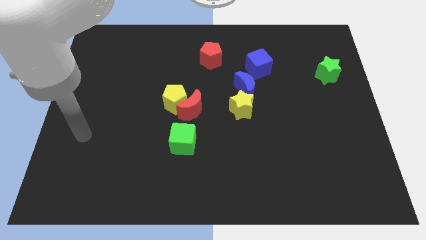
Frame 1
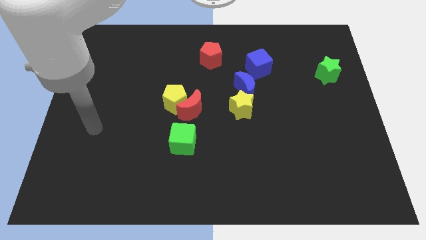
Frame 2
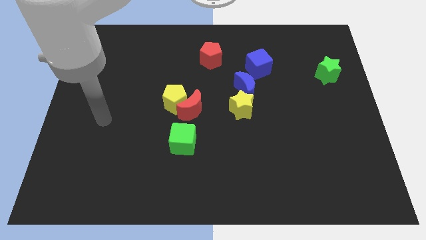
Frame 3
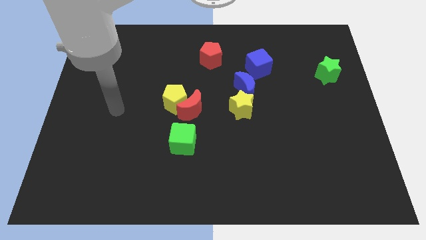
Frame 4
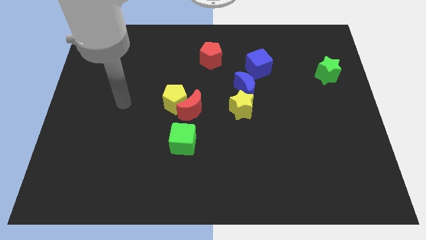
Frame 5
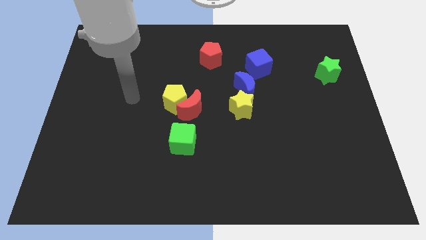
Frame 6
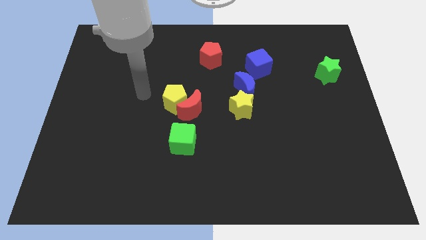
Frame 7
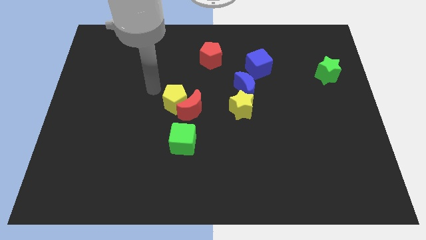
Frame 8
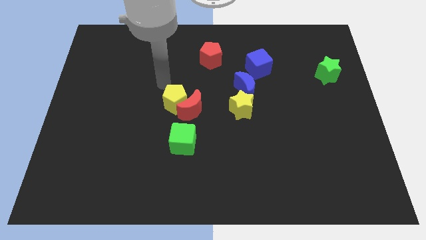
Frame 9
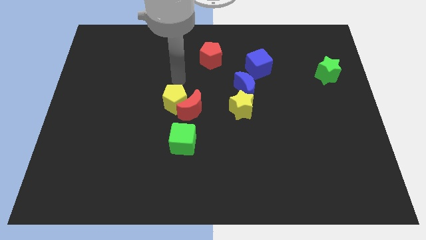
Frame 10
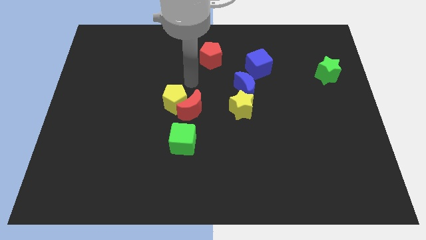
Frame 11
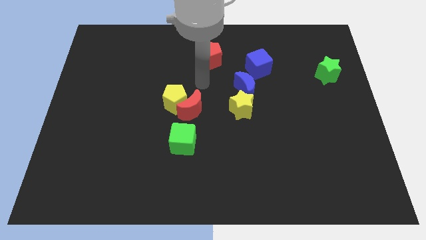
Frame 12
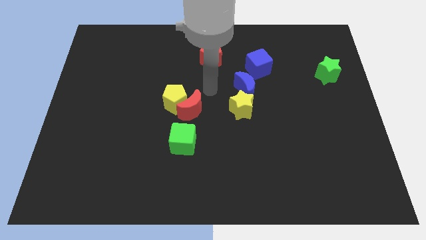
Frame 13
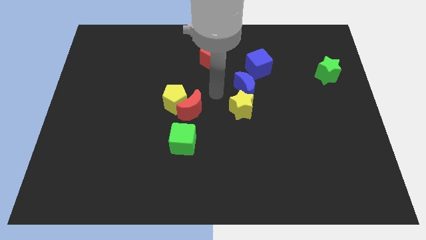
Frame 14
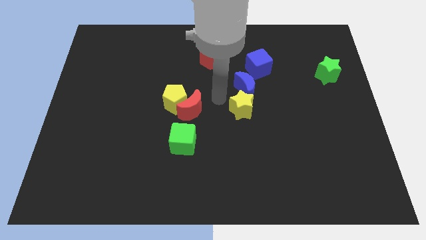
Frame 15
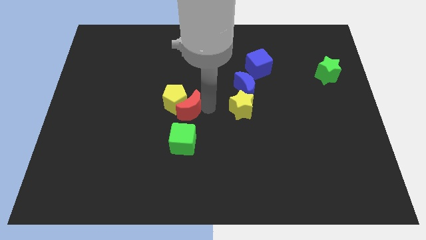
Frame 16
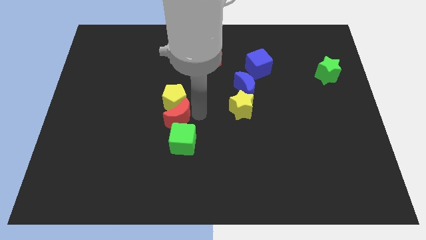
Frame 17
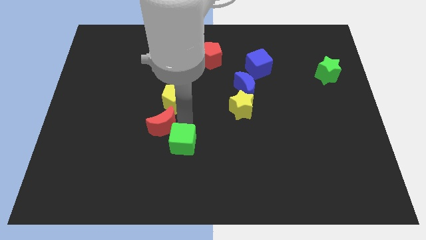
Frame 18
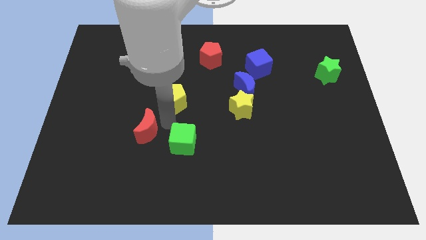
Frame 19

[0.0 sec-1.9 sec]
pull the yellow pentagon apart from the red moon

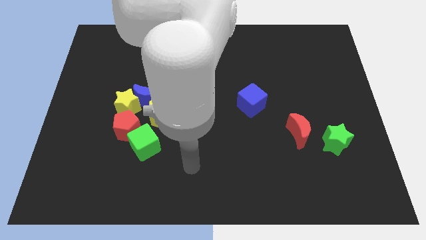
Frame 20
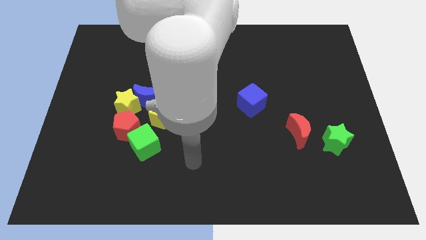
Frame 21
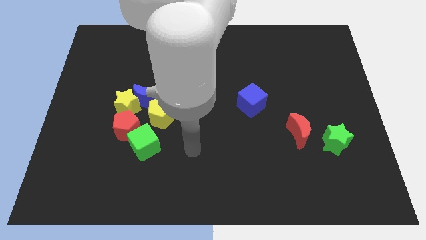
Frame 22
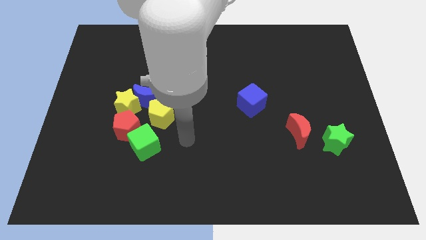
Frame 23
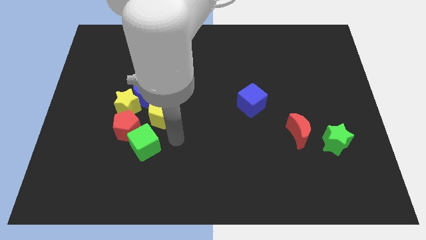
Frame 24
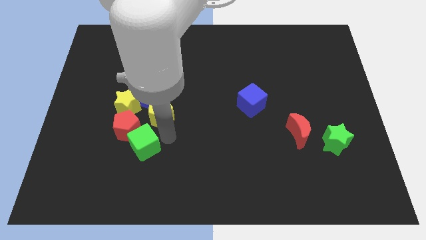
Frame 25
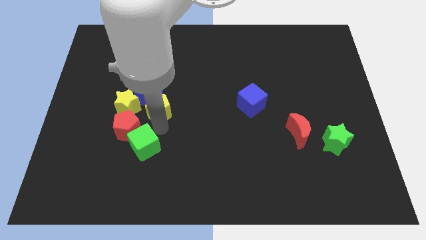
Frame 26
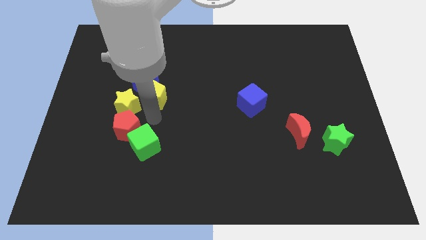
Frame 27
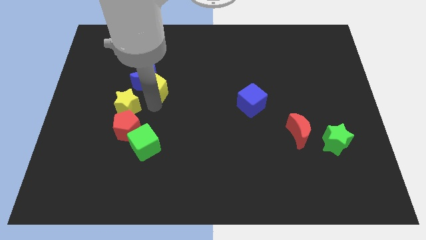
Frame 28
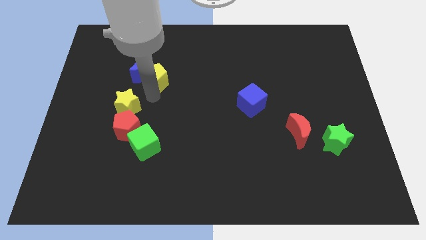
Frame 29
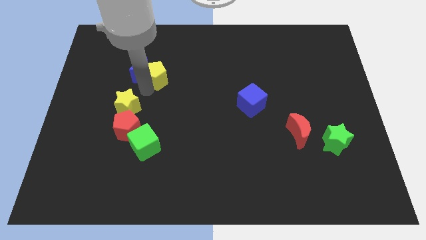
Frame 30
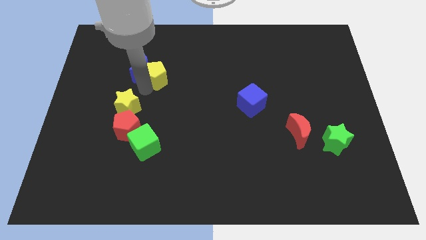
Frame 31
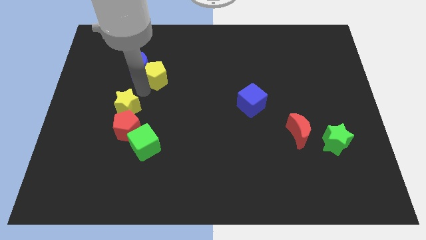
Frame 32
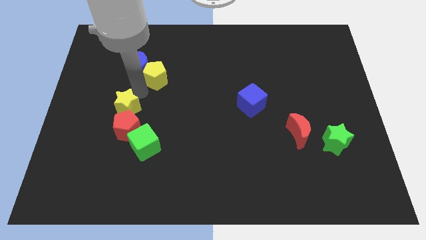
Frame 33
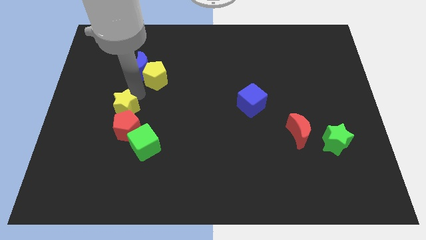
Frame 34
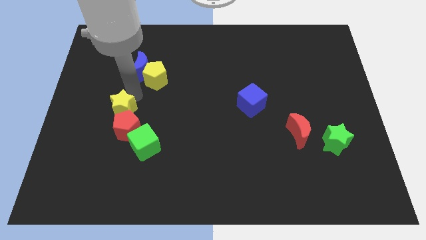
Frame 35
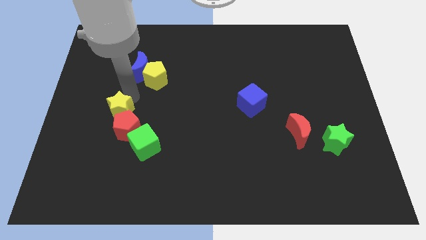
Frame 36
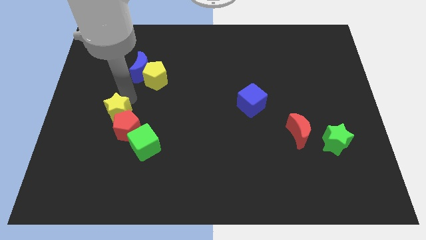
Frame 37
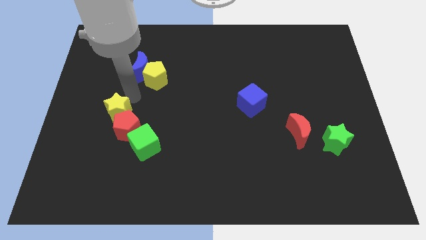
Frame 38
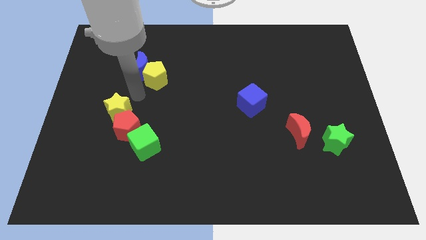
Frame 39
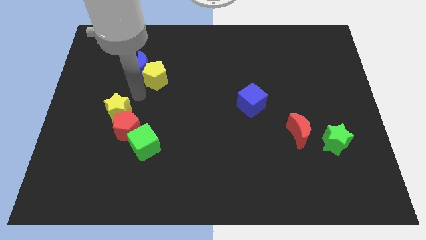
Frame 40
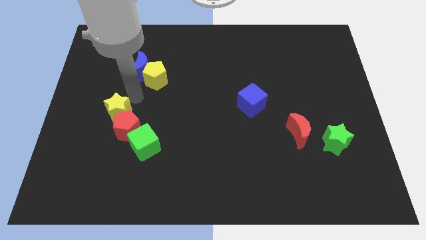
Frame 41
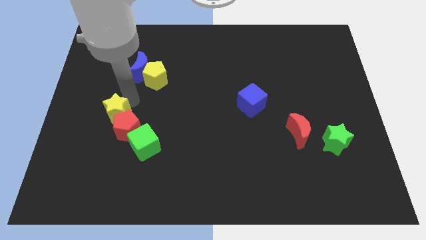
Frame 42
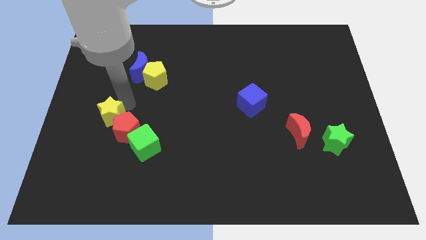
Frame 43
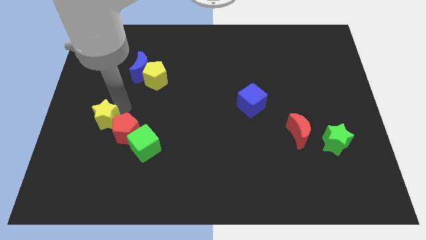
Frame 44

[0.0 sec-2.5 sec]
pull the yellow star apart from the blue moon, red pentagon, and yellow pentagon

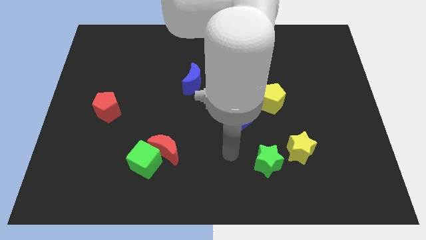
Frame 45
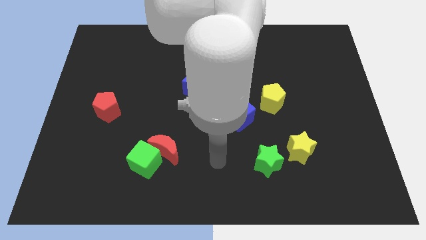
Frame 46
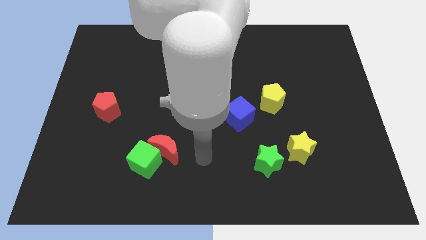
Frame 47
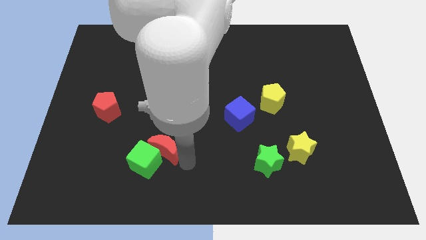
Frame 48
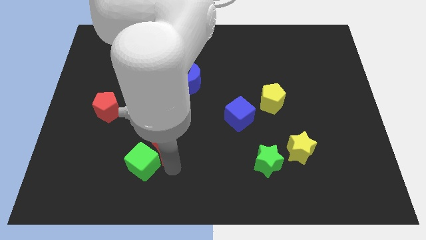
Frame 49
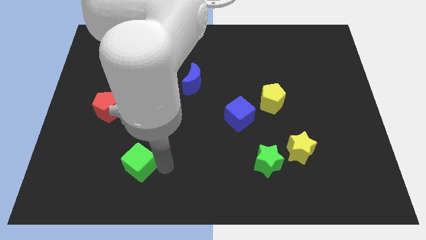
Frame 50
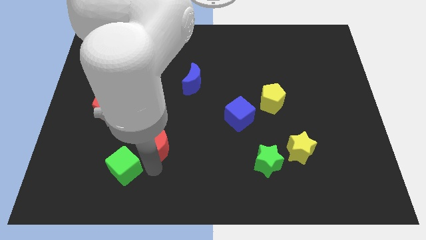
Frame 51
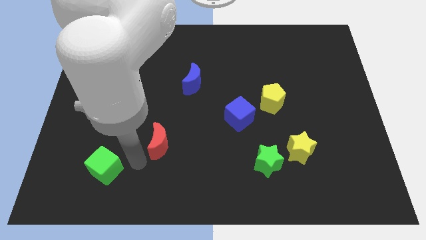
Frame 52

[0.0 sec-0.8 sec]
separate the red moon from the green cube

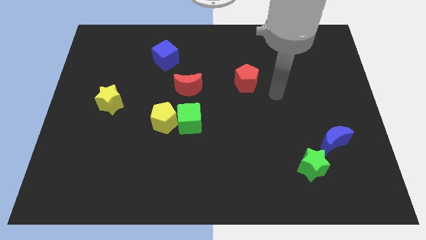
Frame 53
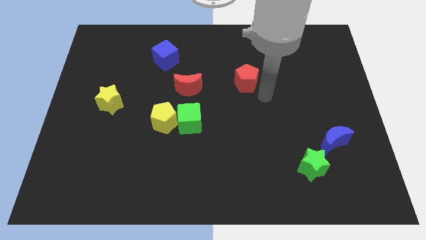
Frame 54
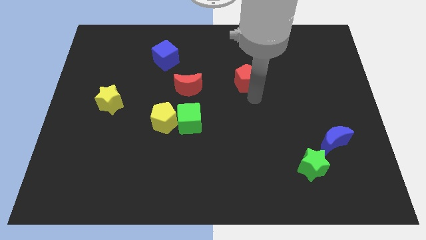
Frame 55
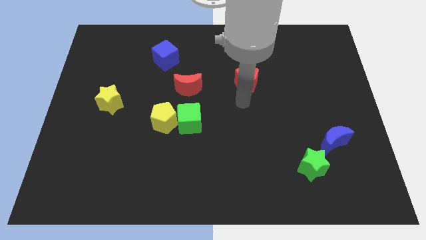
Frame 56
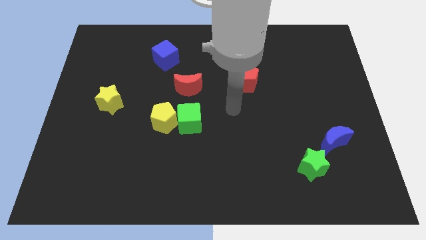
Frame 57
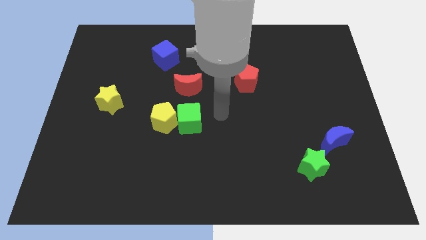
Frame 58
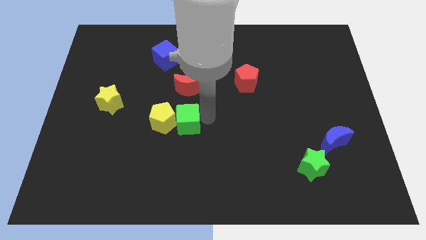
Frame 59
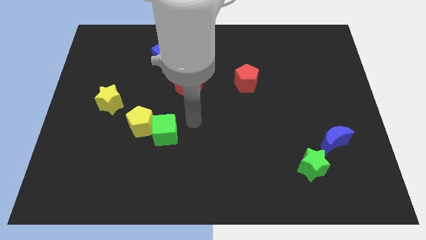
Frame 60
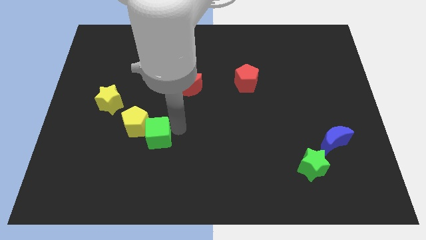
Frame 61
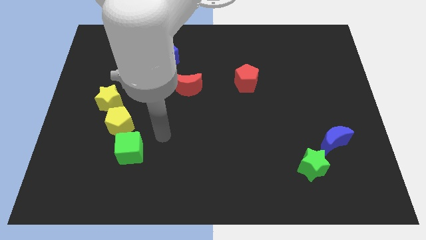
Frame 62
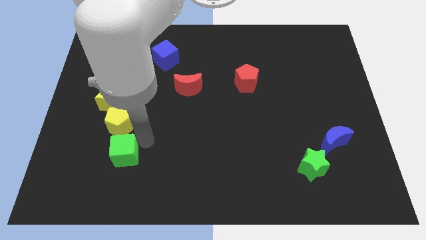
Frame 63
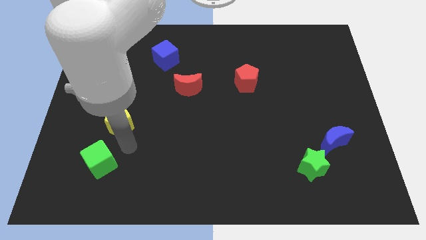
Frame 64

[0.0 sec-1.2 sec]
separate the yellow pentagon from the green cube

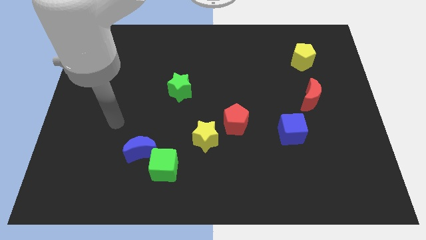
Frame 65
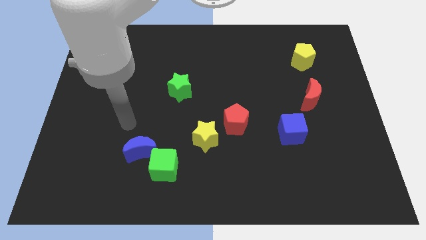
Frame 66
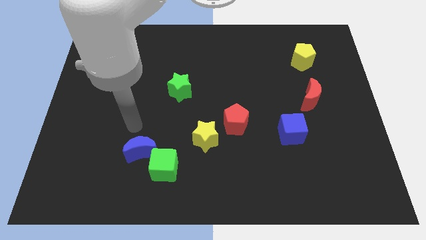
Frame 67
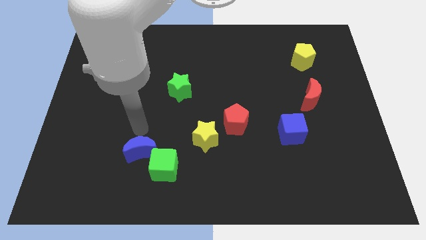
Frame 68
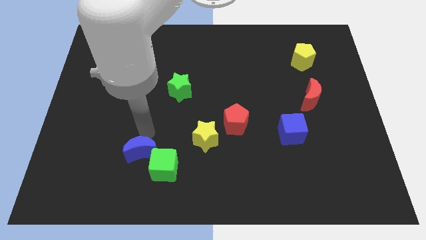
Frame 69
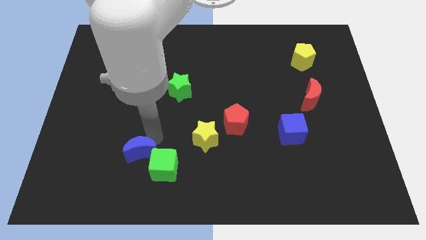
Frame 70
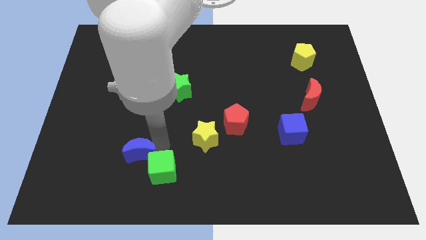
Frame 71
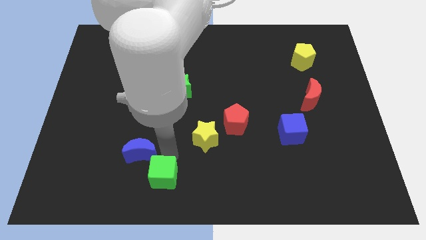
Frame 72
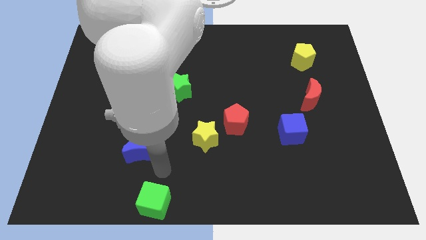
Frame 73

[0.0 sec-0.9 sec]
move the blue moon away from the green cube

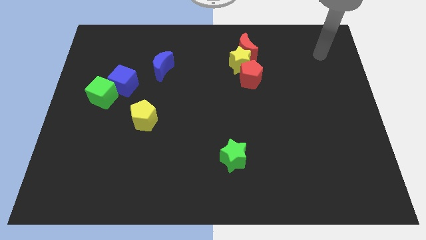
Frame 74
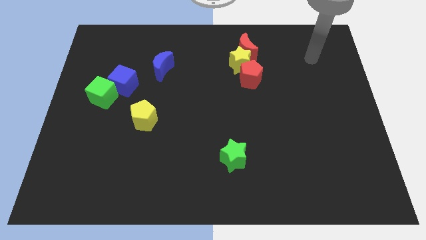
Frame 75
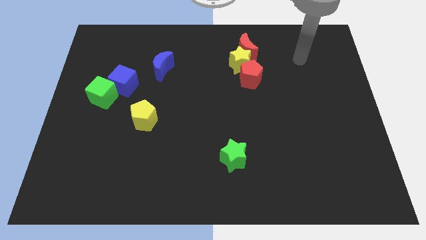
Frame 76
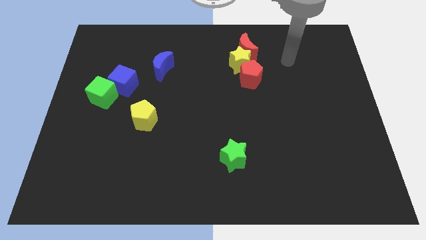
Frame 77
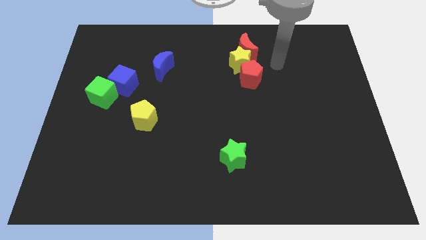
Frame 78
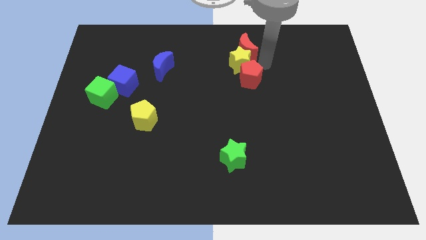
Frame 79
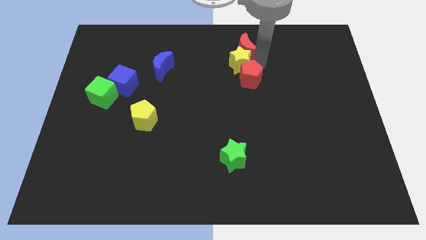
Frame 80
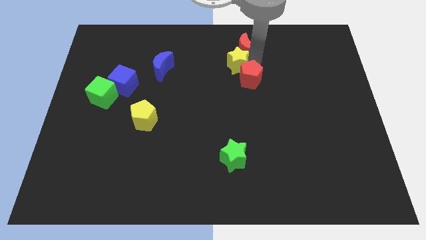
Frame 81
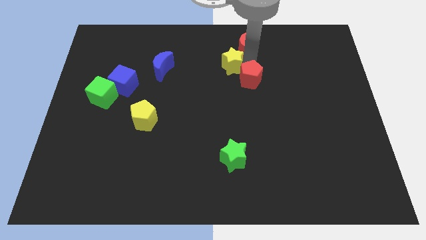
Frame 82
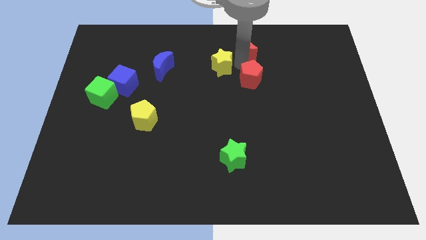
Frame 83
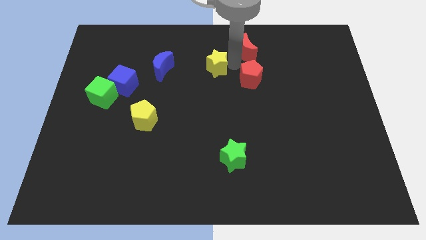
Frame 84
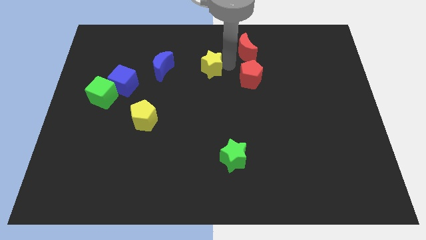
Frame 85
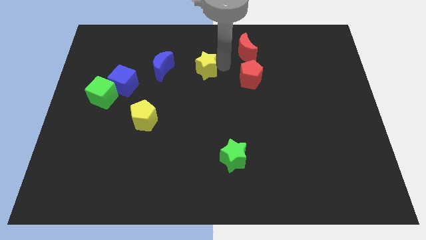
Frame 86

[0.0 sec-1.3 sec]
separate the yellow star from the red moon and red pentagon

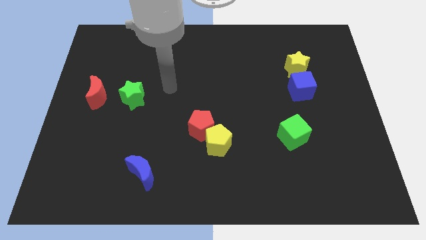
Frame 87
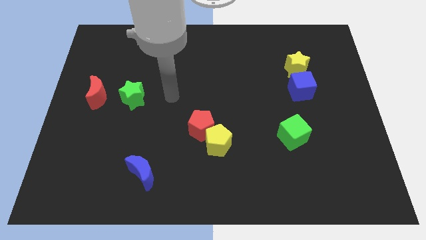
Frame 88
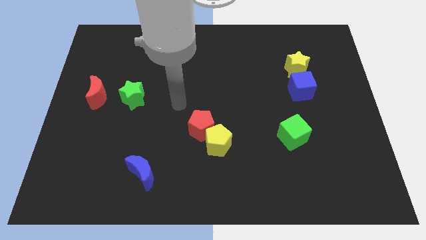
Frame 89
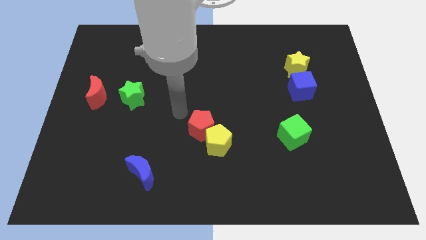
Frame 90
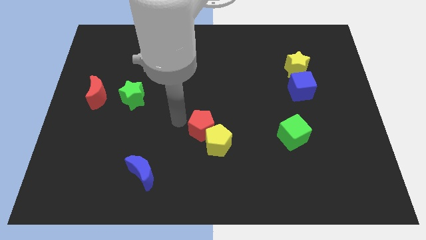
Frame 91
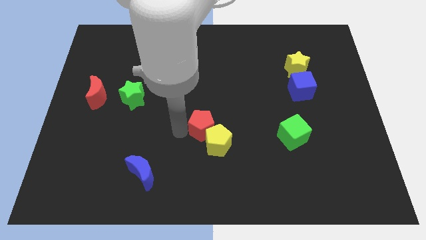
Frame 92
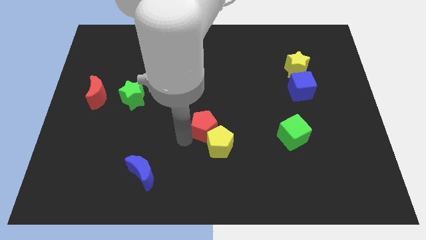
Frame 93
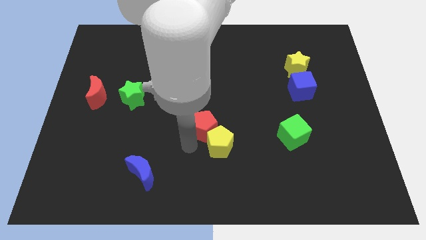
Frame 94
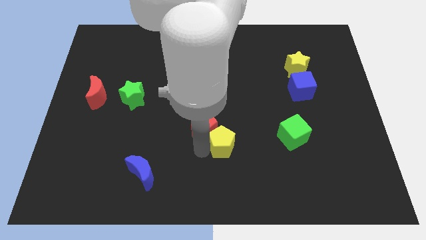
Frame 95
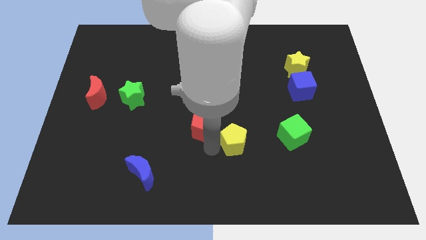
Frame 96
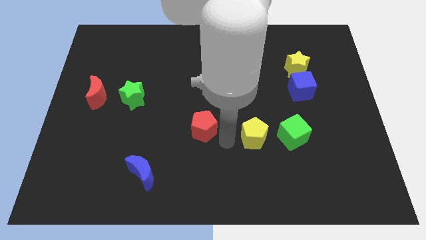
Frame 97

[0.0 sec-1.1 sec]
separate the red pentagon from the yellow pentagon
